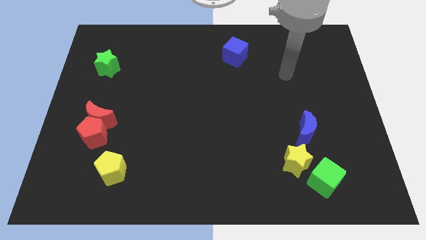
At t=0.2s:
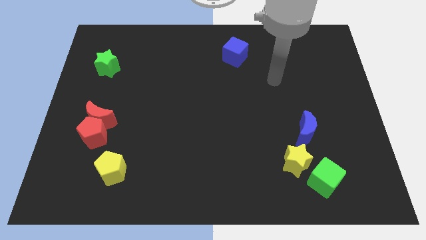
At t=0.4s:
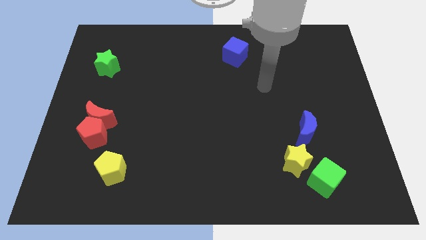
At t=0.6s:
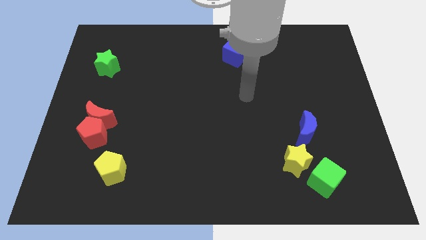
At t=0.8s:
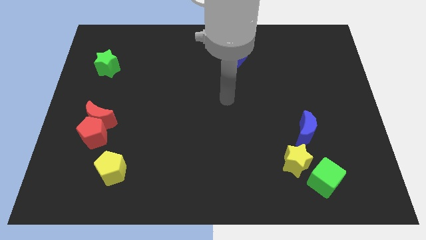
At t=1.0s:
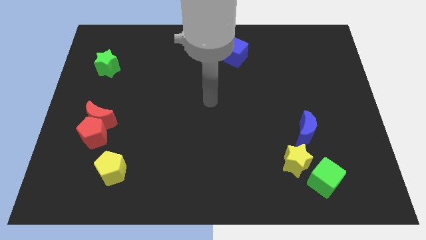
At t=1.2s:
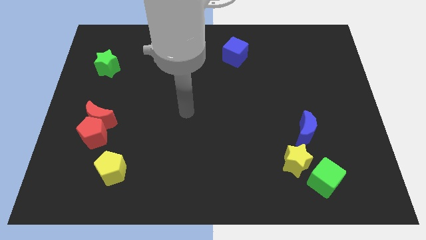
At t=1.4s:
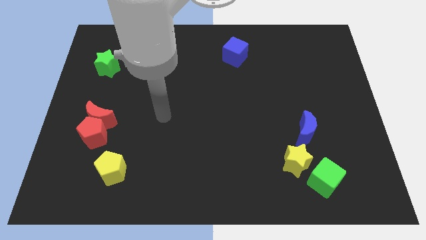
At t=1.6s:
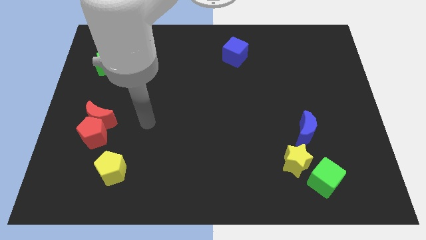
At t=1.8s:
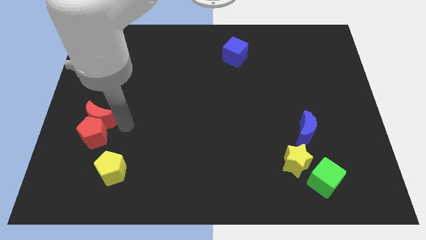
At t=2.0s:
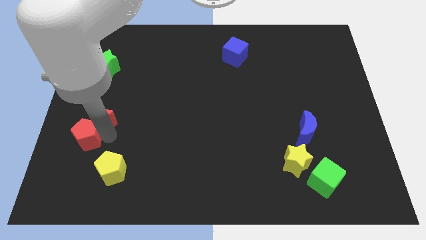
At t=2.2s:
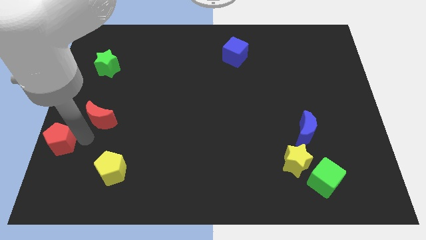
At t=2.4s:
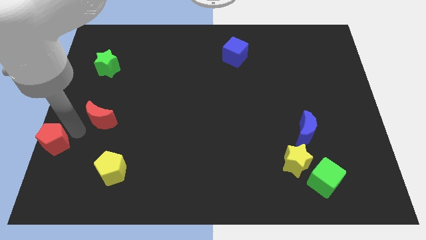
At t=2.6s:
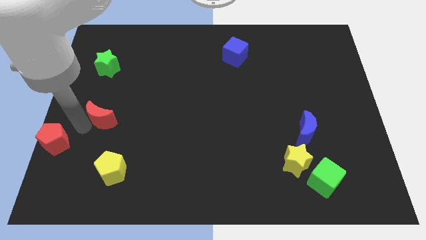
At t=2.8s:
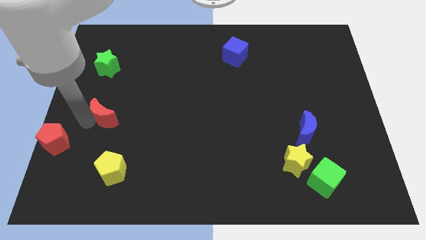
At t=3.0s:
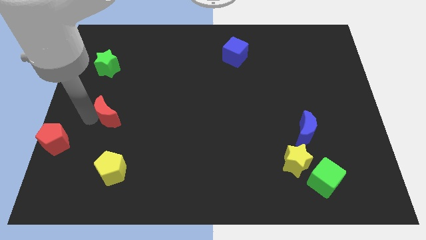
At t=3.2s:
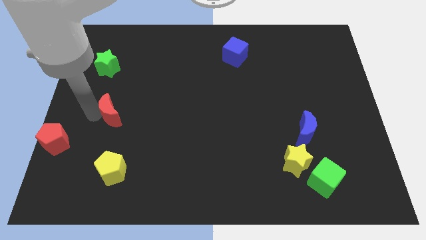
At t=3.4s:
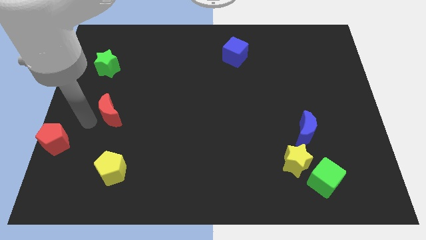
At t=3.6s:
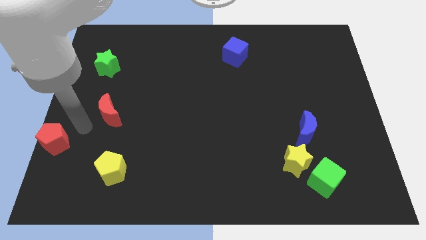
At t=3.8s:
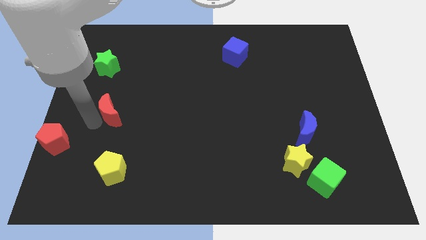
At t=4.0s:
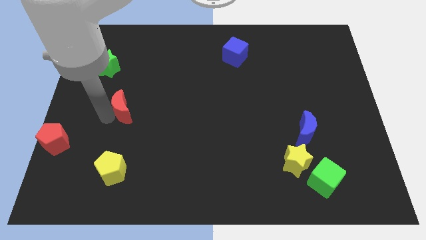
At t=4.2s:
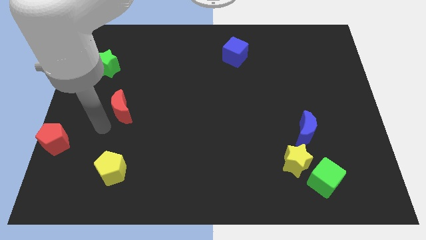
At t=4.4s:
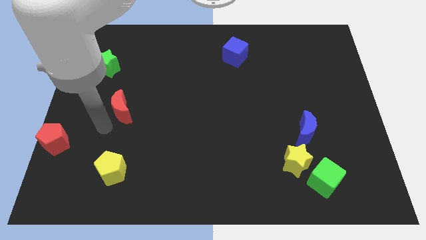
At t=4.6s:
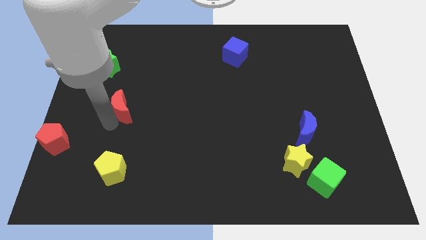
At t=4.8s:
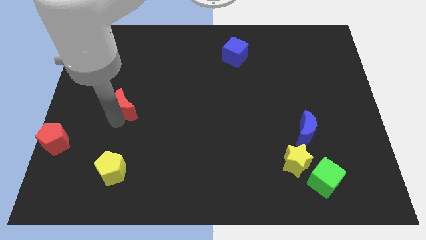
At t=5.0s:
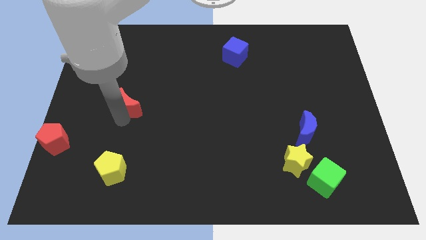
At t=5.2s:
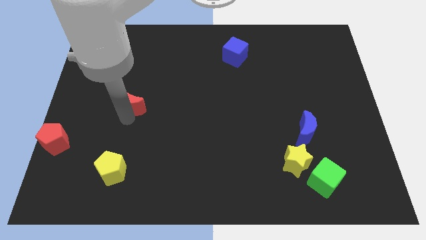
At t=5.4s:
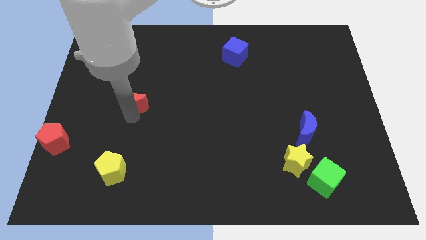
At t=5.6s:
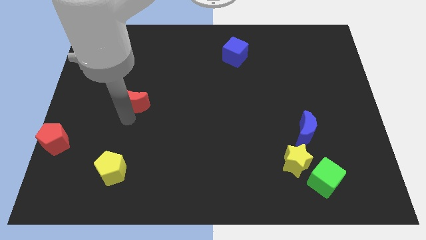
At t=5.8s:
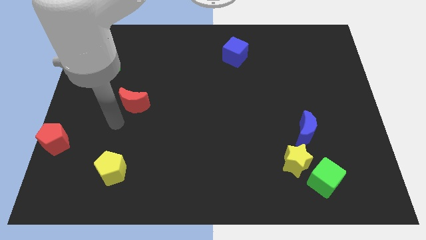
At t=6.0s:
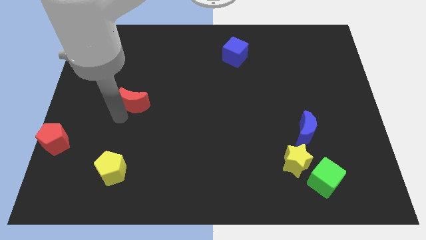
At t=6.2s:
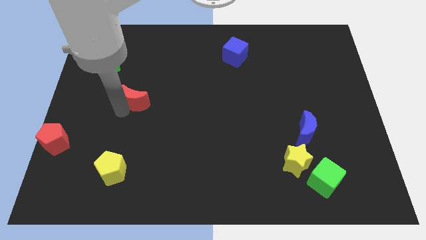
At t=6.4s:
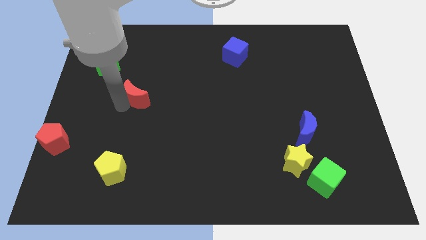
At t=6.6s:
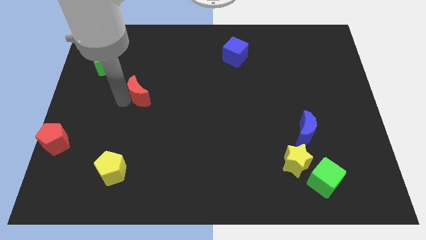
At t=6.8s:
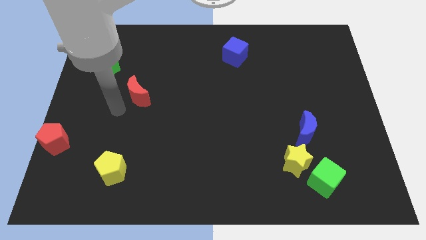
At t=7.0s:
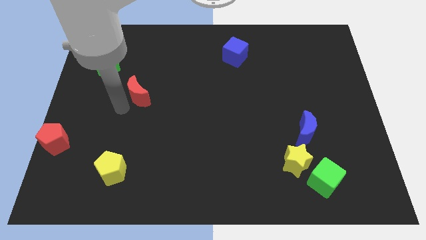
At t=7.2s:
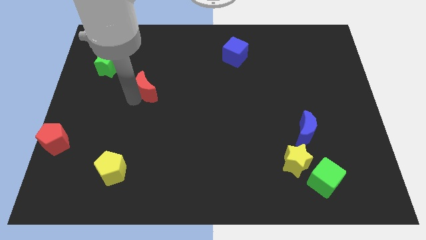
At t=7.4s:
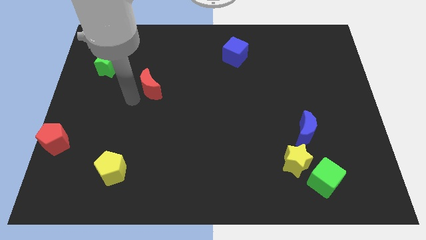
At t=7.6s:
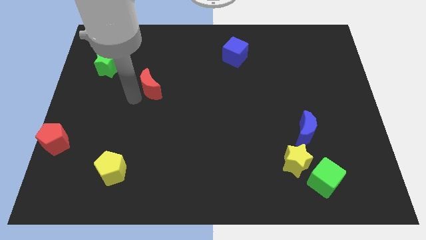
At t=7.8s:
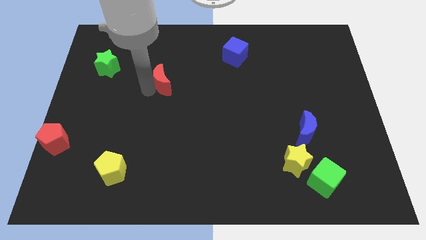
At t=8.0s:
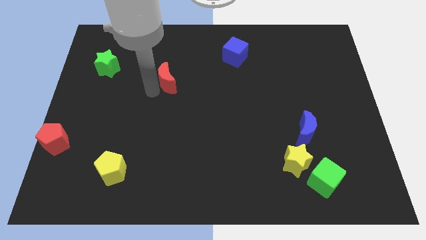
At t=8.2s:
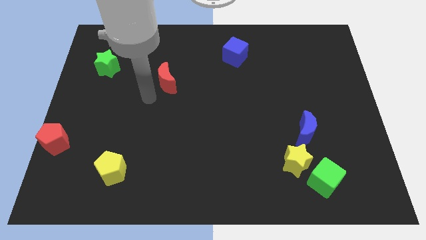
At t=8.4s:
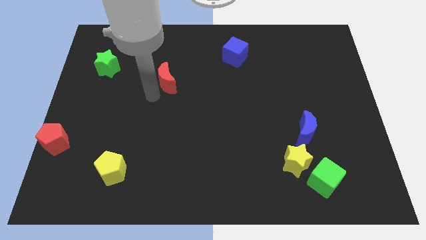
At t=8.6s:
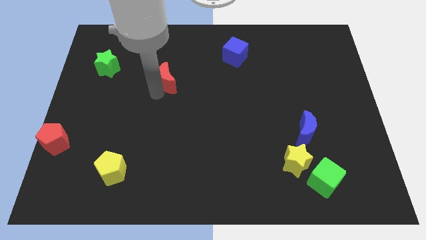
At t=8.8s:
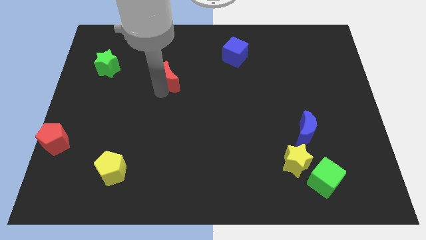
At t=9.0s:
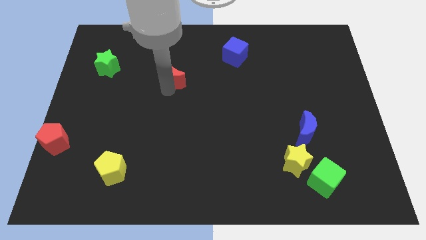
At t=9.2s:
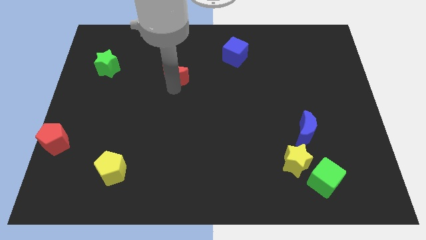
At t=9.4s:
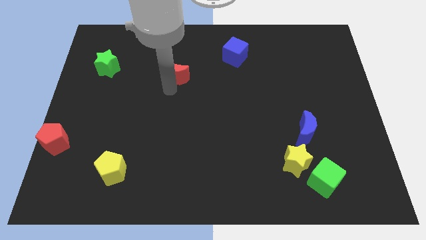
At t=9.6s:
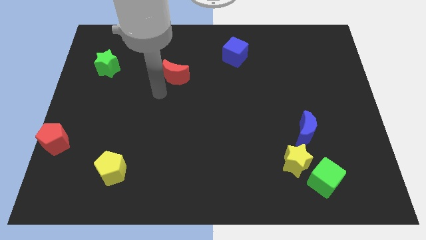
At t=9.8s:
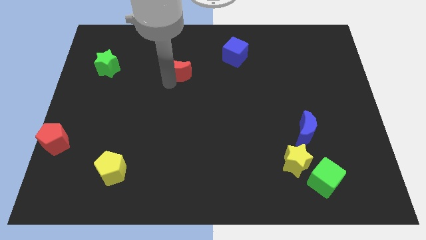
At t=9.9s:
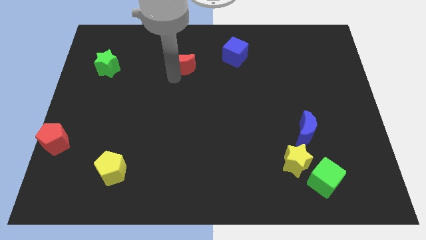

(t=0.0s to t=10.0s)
slide the red moon to the left of the blue cube

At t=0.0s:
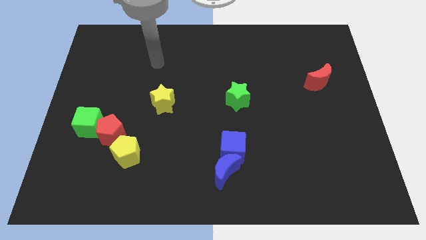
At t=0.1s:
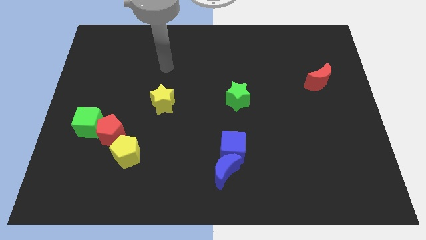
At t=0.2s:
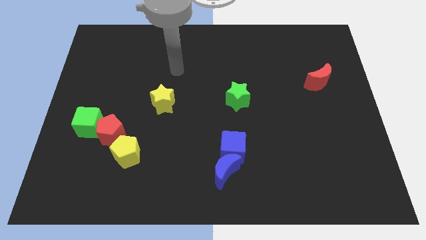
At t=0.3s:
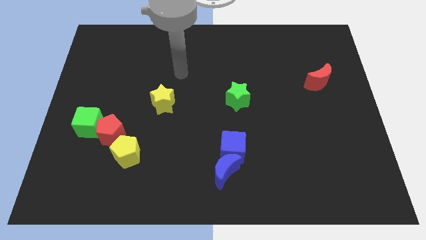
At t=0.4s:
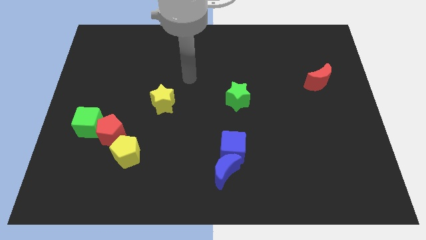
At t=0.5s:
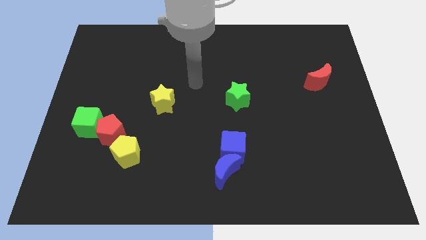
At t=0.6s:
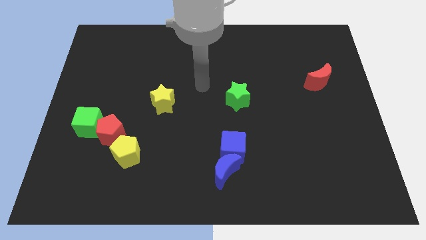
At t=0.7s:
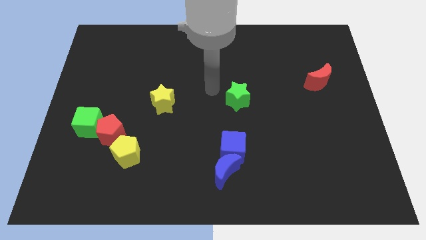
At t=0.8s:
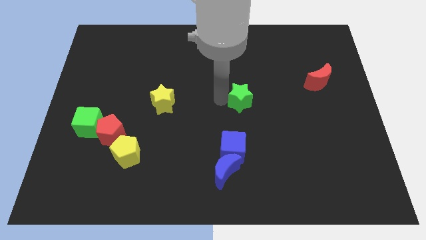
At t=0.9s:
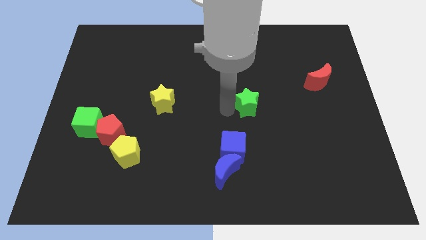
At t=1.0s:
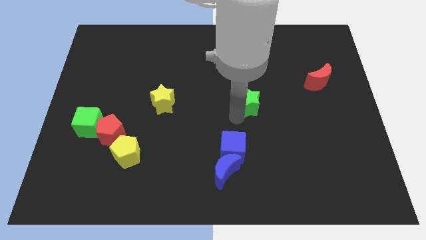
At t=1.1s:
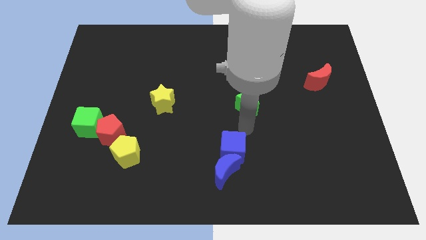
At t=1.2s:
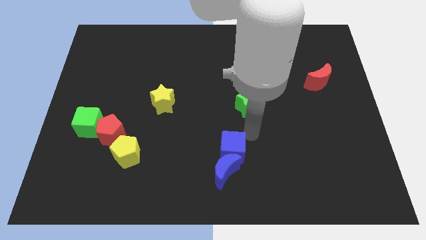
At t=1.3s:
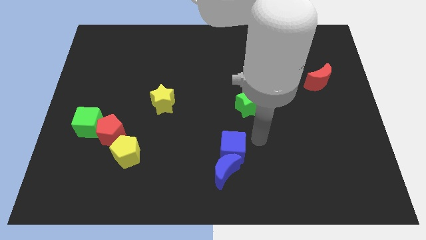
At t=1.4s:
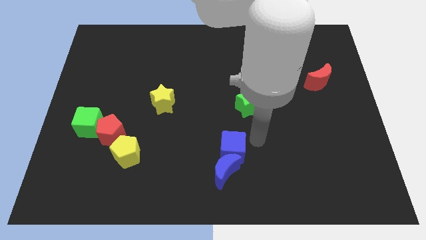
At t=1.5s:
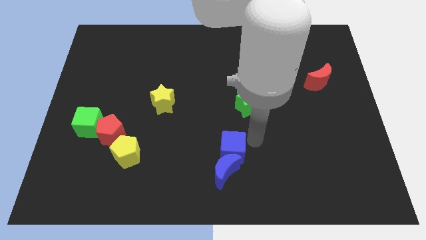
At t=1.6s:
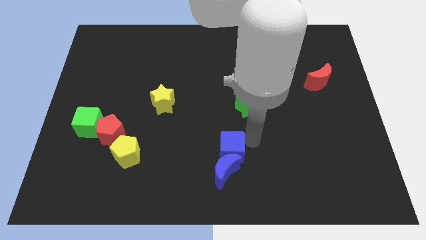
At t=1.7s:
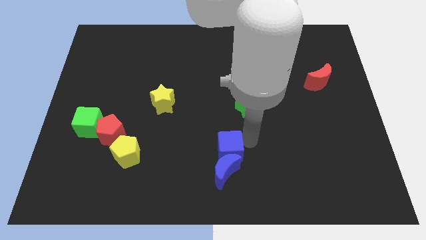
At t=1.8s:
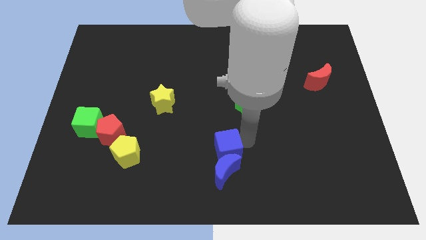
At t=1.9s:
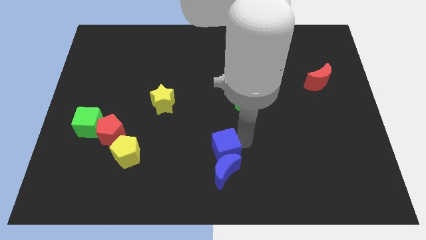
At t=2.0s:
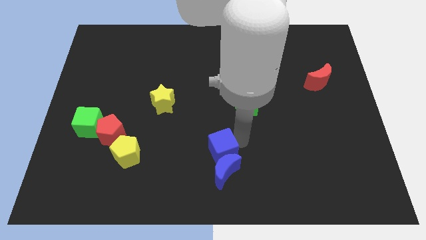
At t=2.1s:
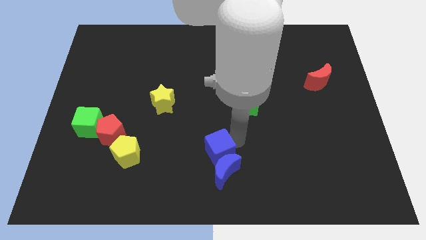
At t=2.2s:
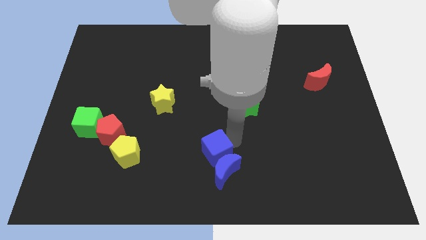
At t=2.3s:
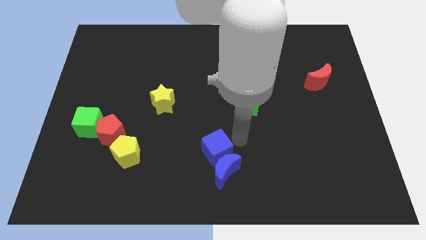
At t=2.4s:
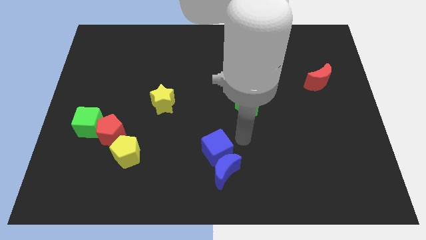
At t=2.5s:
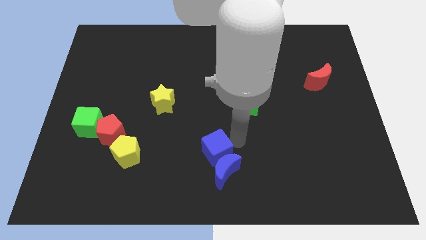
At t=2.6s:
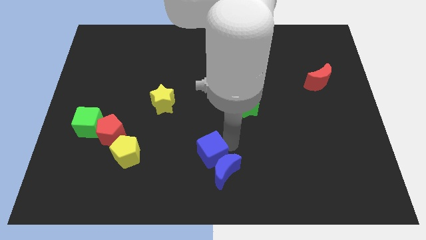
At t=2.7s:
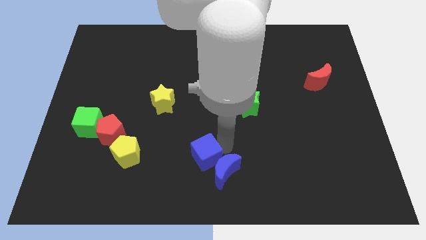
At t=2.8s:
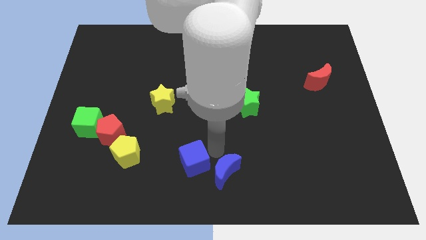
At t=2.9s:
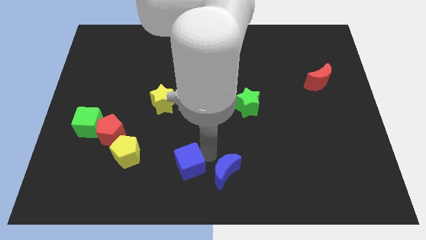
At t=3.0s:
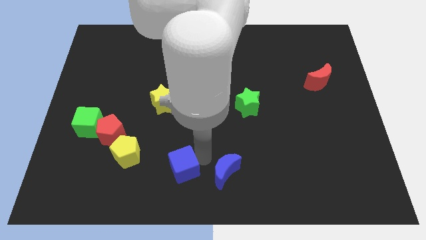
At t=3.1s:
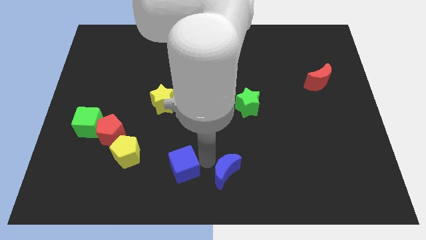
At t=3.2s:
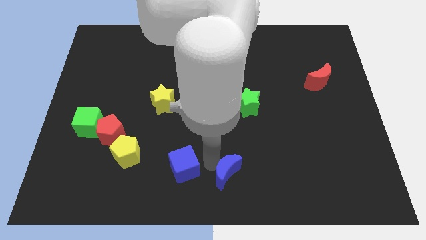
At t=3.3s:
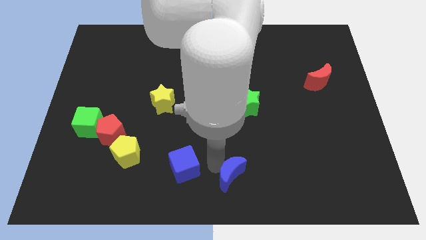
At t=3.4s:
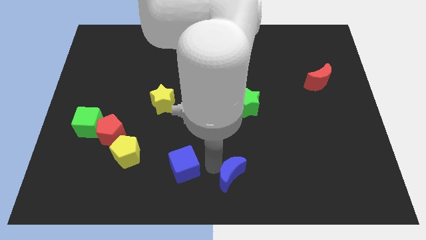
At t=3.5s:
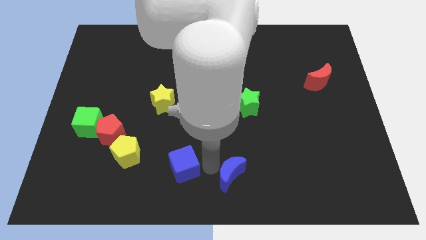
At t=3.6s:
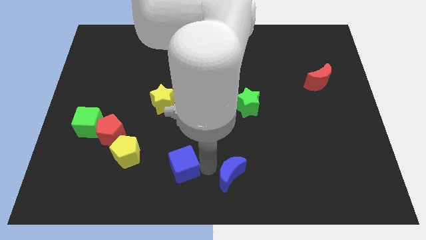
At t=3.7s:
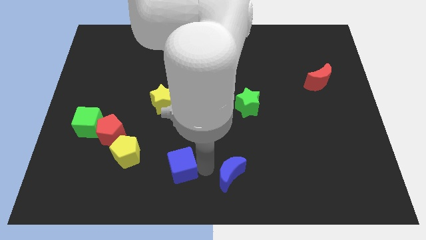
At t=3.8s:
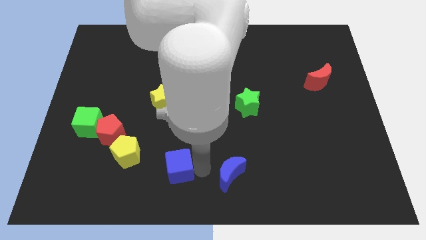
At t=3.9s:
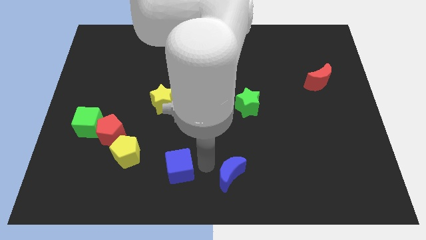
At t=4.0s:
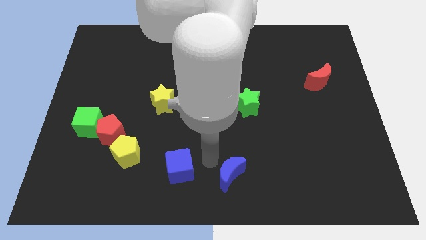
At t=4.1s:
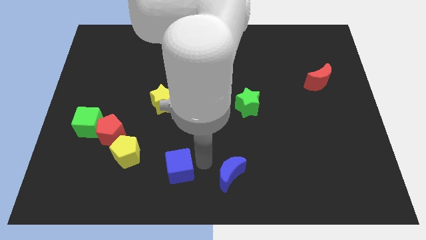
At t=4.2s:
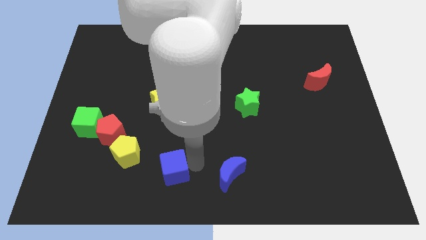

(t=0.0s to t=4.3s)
put the blue cube to the bottom right side of the yellow pentagon
